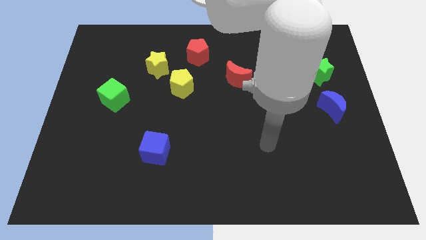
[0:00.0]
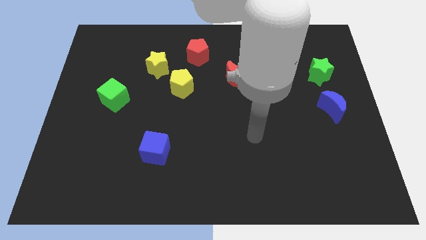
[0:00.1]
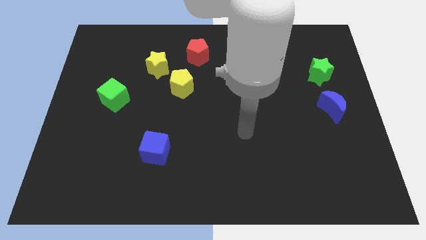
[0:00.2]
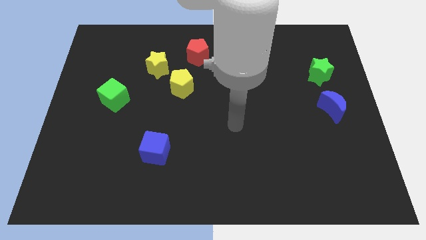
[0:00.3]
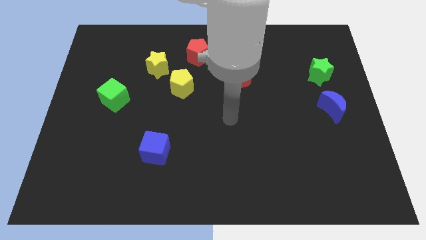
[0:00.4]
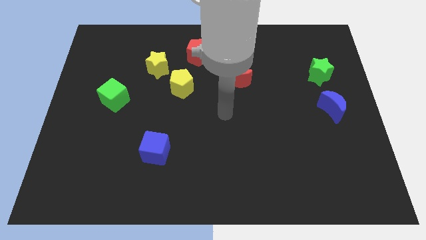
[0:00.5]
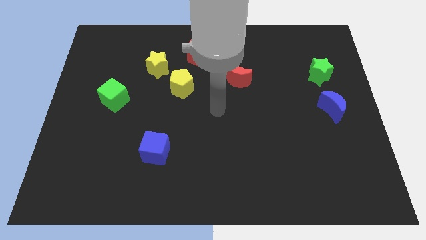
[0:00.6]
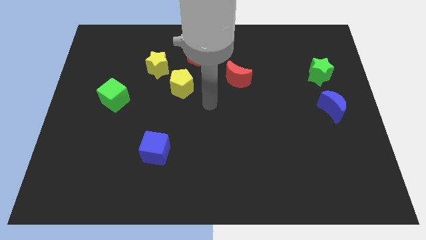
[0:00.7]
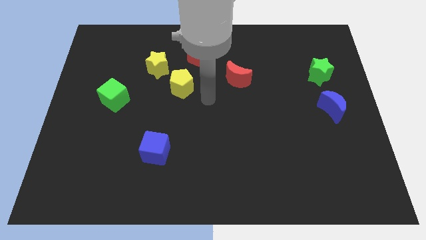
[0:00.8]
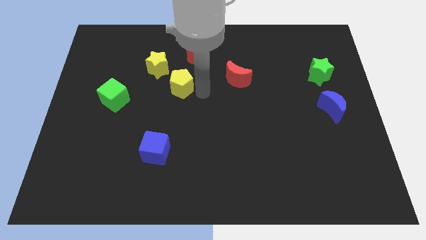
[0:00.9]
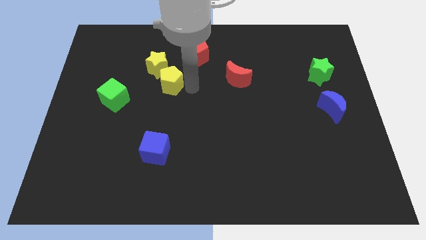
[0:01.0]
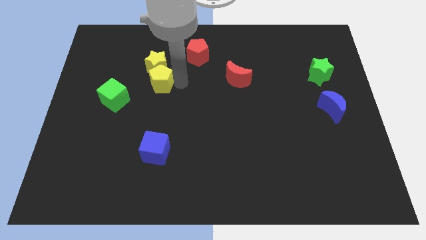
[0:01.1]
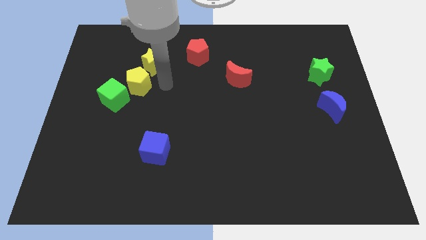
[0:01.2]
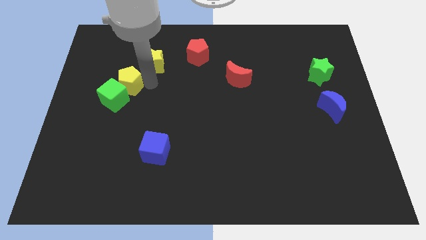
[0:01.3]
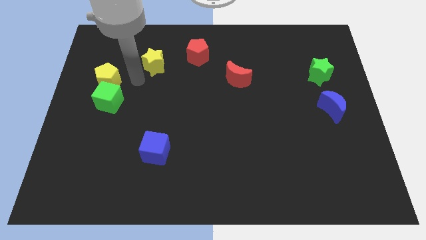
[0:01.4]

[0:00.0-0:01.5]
separate the yellow star from the yellow pentagon

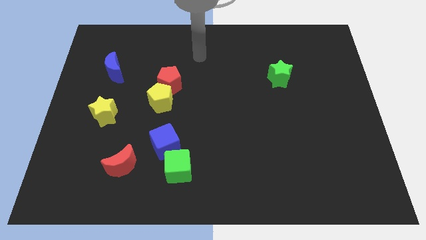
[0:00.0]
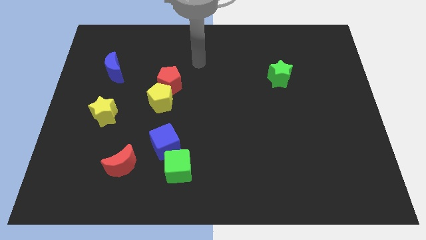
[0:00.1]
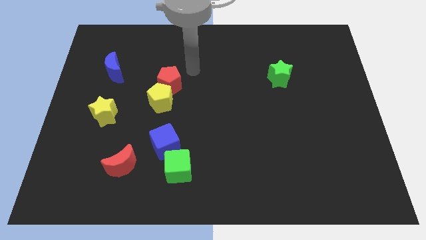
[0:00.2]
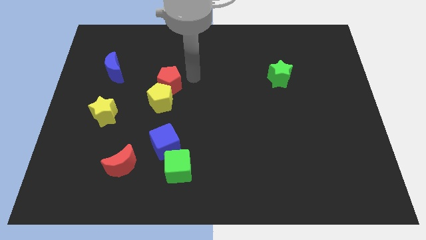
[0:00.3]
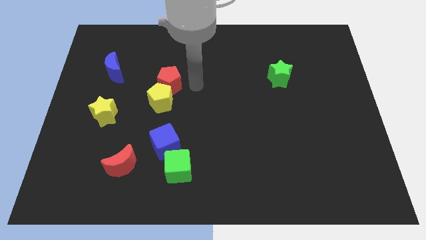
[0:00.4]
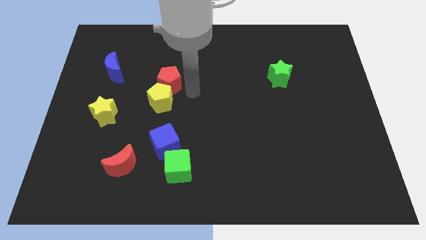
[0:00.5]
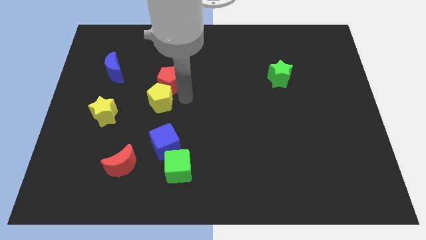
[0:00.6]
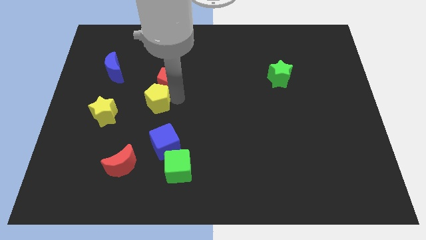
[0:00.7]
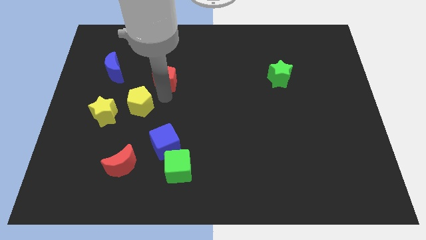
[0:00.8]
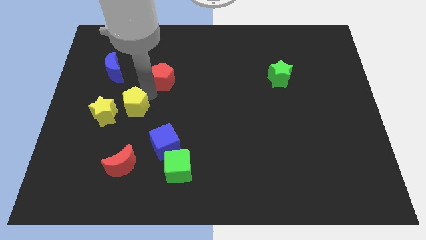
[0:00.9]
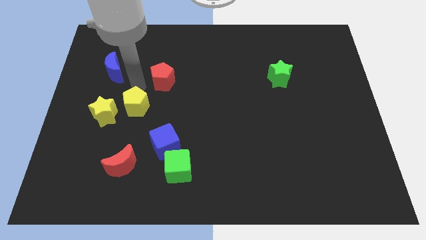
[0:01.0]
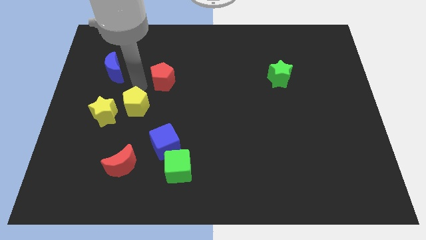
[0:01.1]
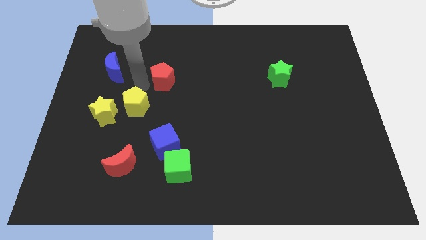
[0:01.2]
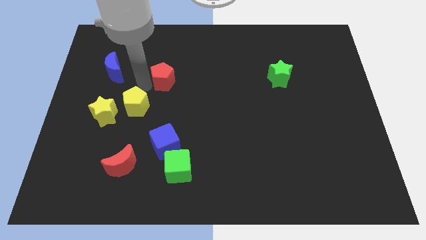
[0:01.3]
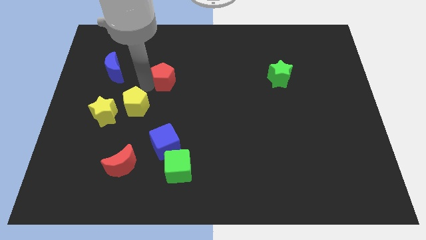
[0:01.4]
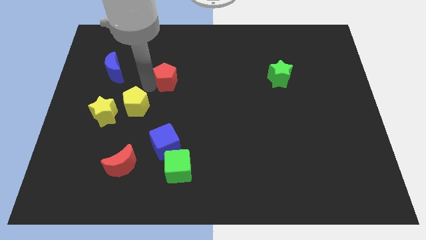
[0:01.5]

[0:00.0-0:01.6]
move the red pentagon away from the yellow pentagon

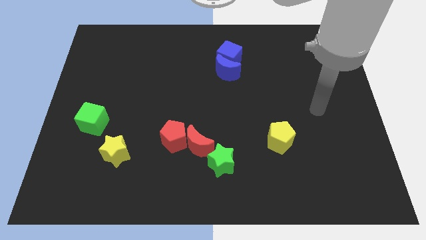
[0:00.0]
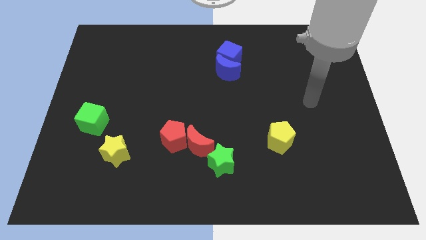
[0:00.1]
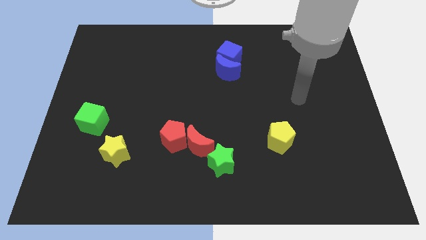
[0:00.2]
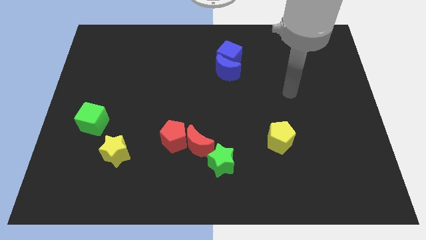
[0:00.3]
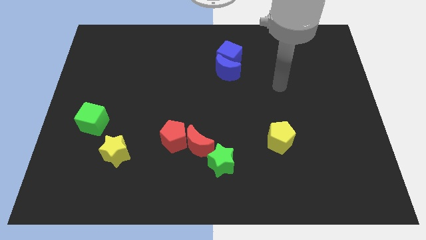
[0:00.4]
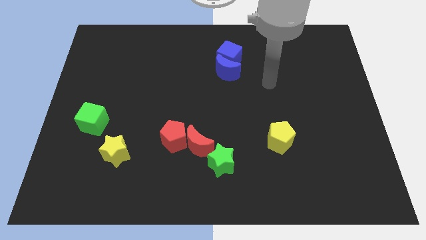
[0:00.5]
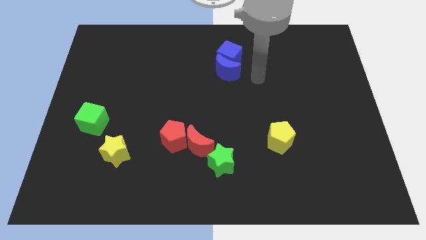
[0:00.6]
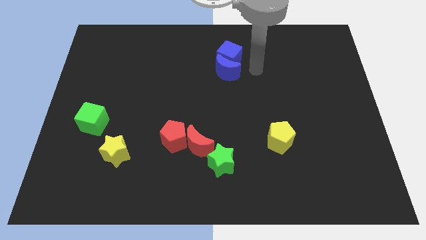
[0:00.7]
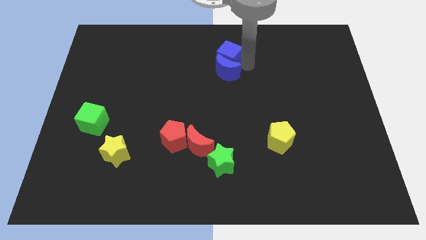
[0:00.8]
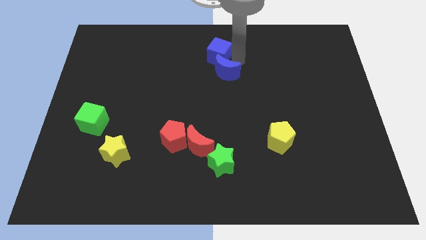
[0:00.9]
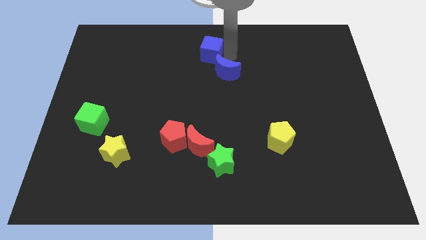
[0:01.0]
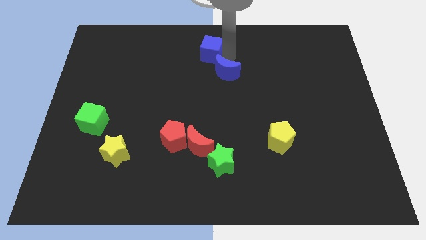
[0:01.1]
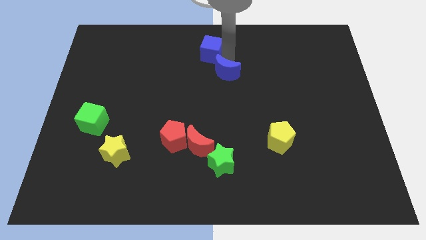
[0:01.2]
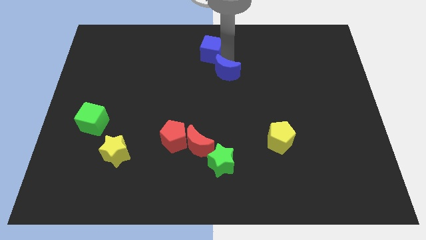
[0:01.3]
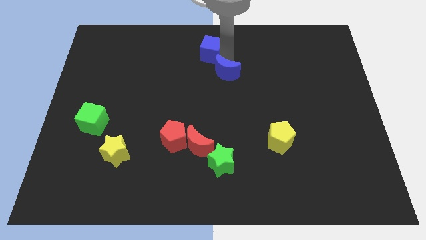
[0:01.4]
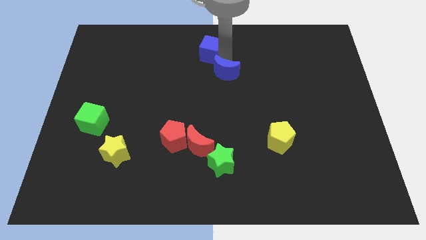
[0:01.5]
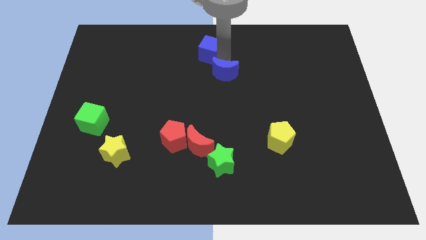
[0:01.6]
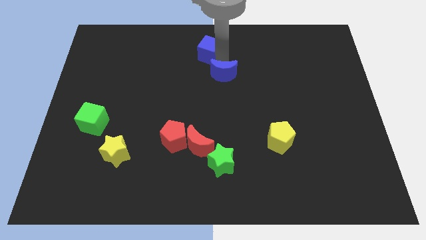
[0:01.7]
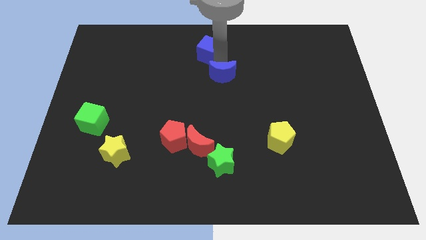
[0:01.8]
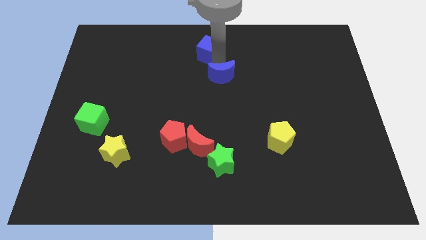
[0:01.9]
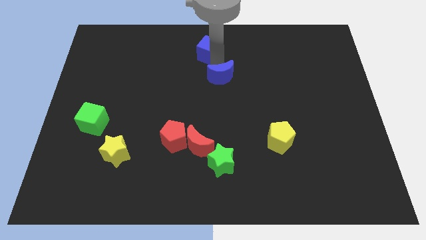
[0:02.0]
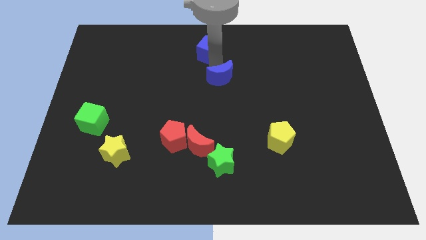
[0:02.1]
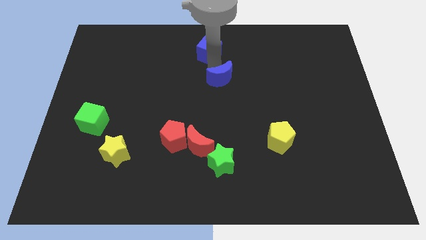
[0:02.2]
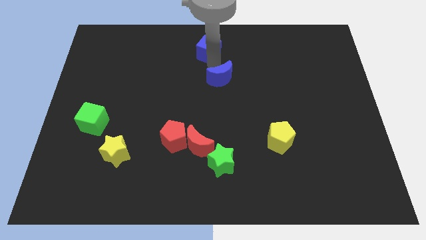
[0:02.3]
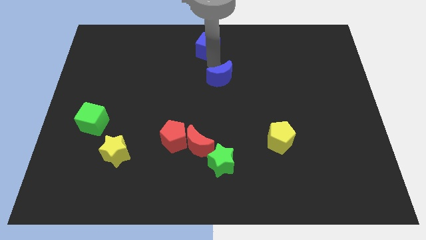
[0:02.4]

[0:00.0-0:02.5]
separate the blue moon from the blue cube

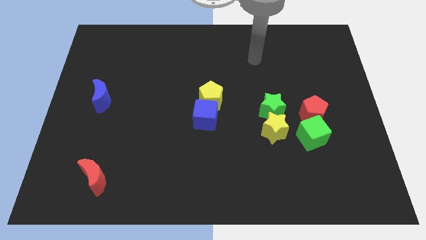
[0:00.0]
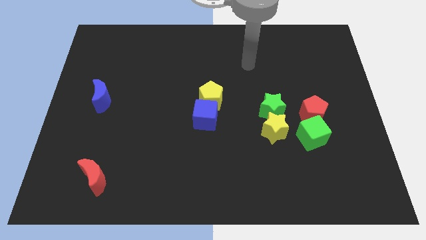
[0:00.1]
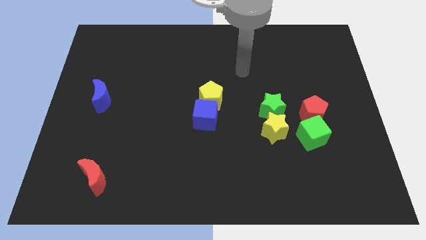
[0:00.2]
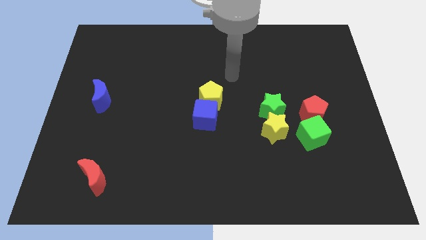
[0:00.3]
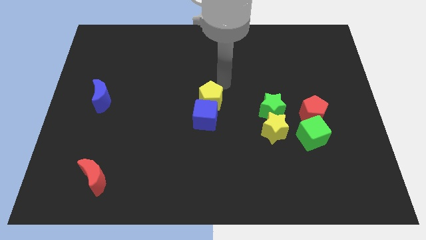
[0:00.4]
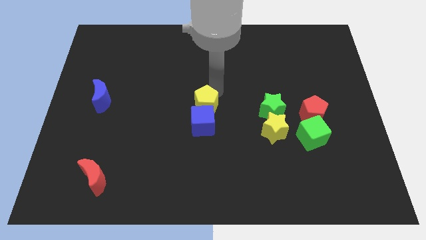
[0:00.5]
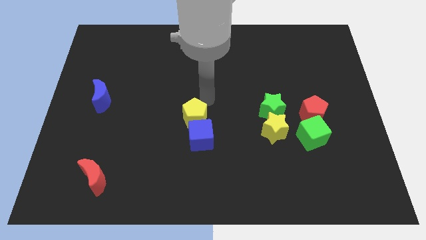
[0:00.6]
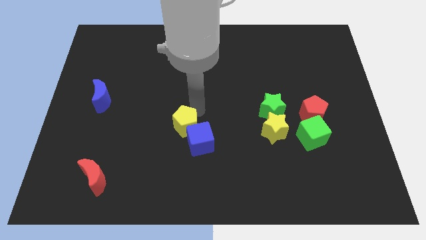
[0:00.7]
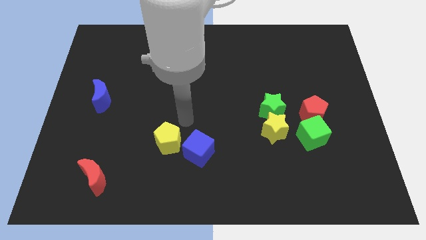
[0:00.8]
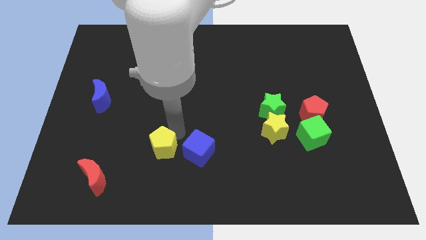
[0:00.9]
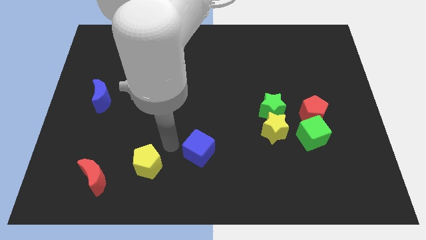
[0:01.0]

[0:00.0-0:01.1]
move the blue cube away from the yellow pentagon

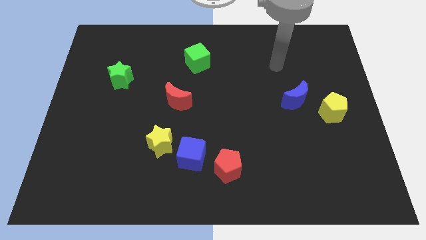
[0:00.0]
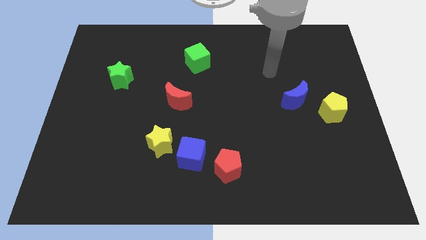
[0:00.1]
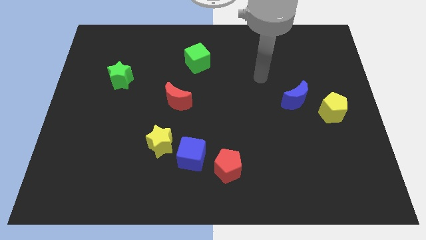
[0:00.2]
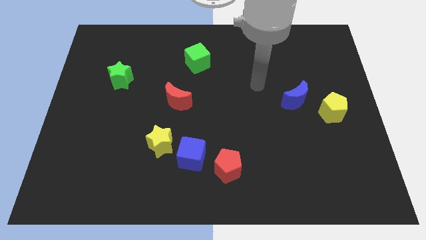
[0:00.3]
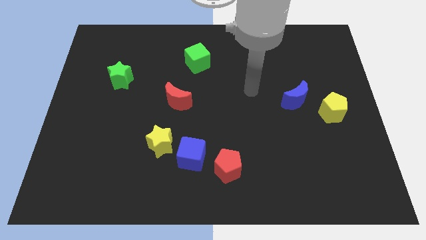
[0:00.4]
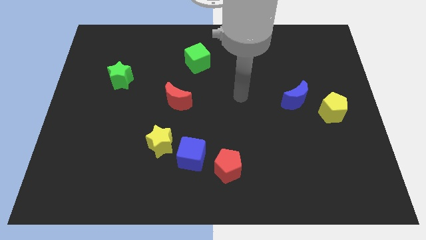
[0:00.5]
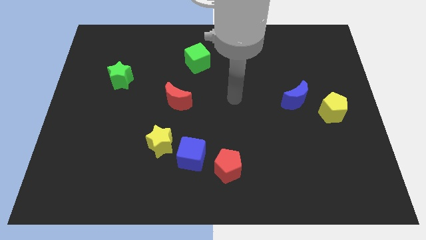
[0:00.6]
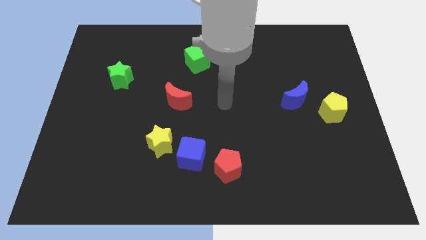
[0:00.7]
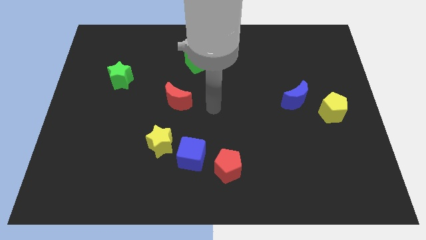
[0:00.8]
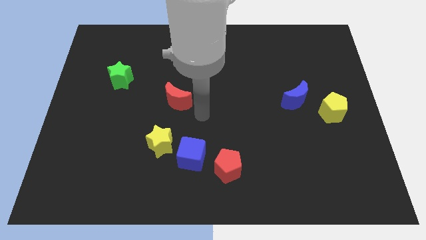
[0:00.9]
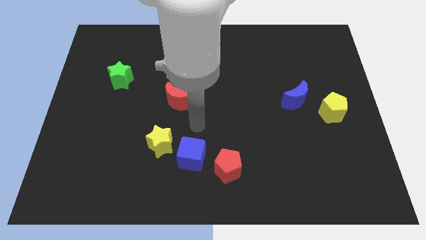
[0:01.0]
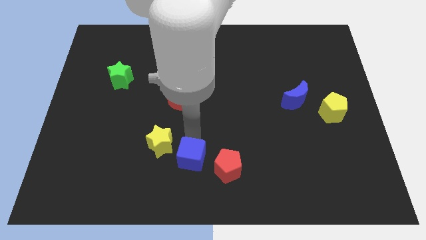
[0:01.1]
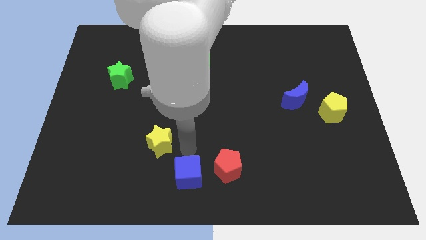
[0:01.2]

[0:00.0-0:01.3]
move the yellow star away from the blue cube

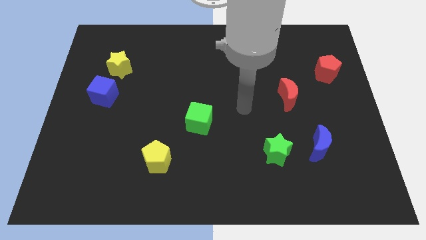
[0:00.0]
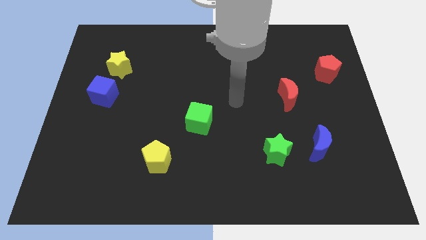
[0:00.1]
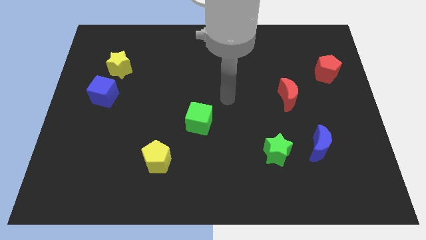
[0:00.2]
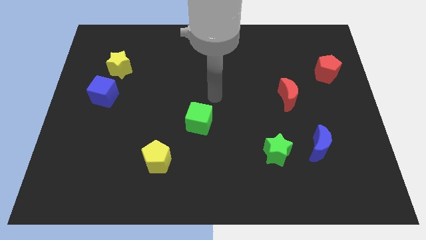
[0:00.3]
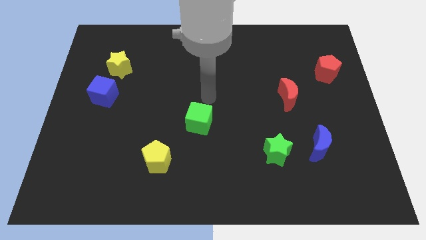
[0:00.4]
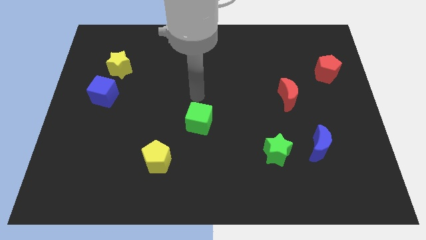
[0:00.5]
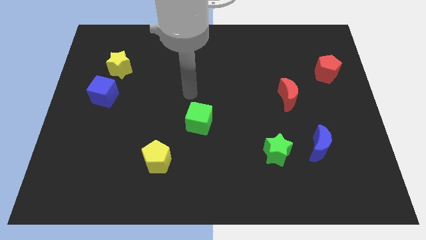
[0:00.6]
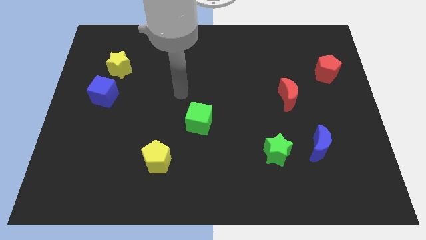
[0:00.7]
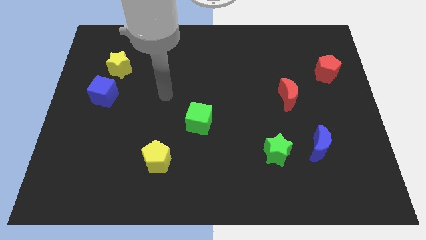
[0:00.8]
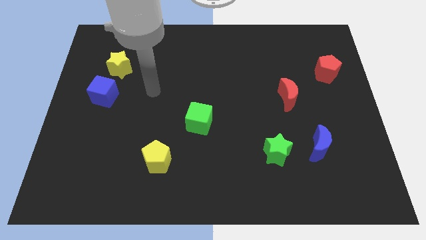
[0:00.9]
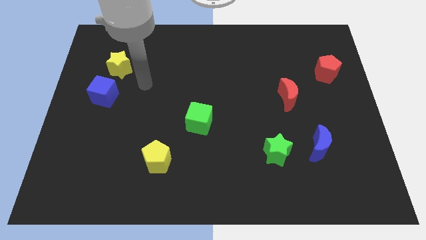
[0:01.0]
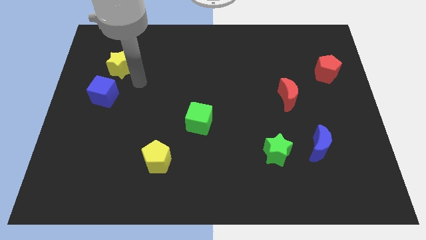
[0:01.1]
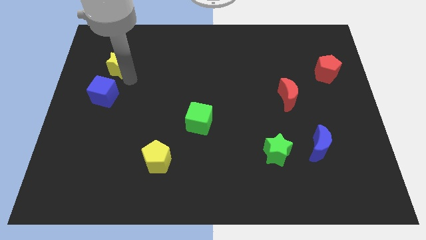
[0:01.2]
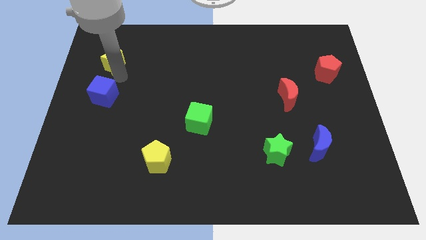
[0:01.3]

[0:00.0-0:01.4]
separate the blue cube from the yellow star
